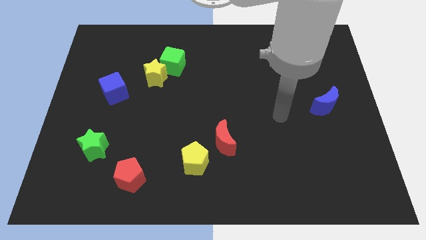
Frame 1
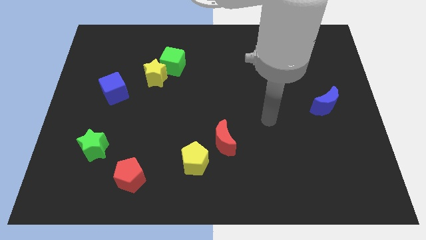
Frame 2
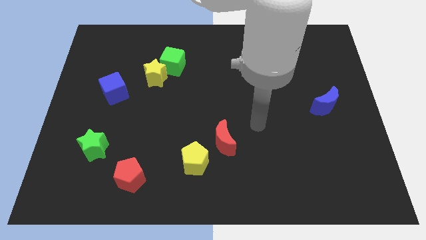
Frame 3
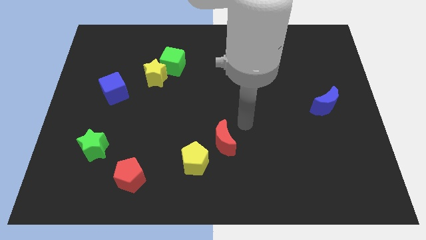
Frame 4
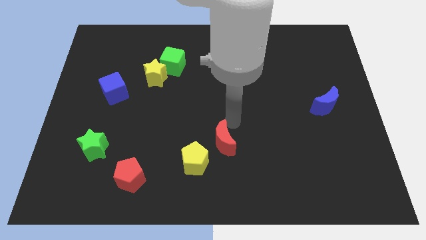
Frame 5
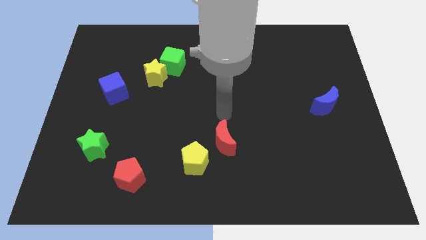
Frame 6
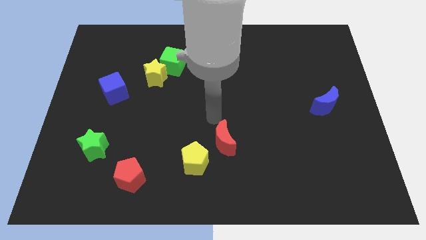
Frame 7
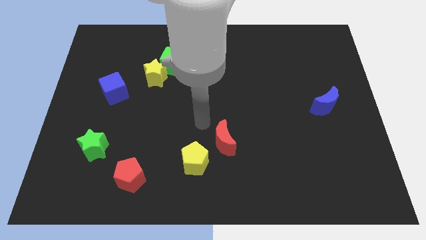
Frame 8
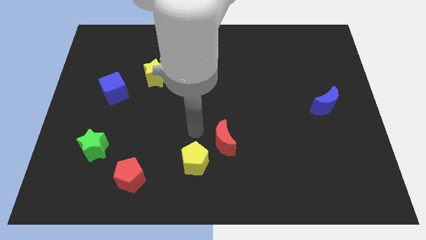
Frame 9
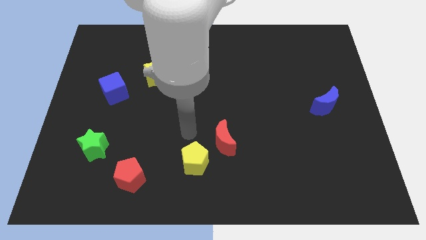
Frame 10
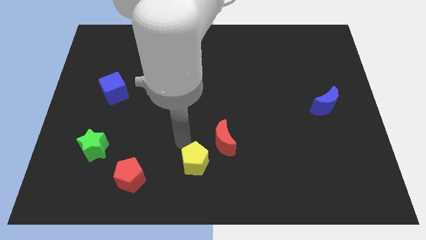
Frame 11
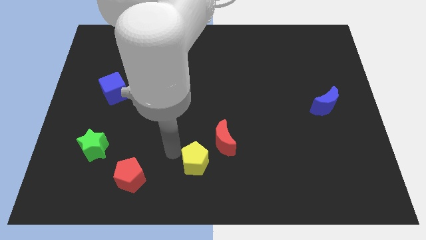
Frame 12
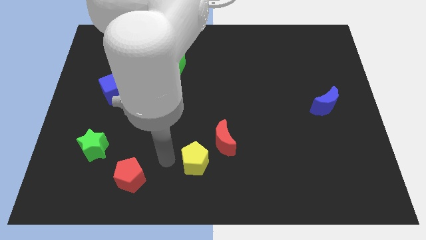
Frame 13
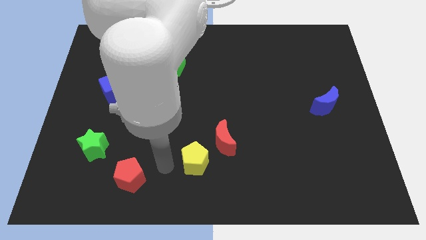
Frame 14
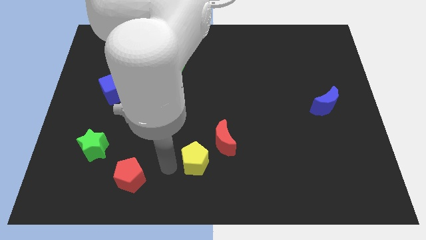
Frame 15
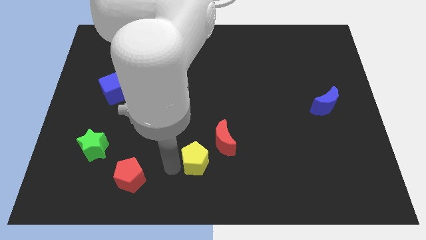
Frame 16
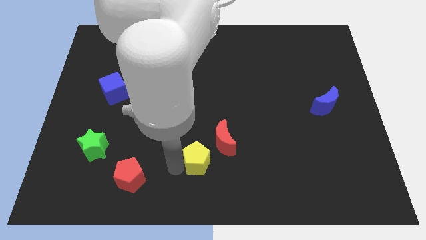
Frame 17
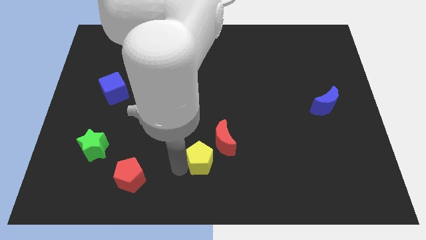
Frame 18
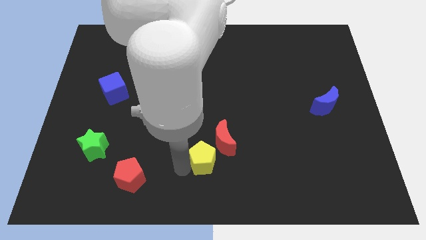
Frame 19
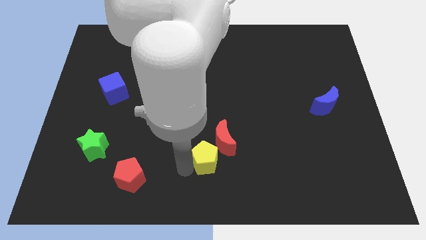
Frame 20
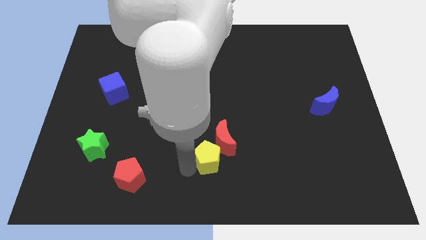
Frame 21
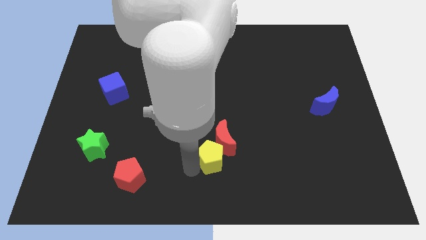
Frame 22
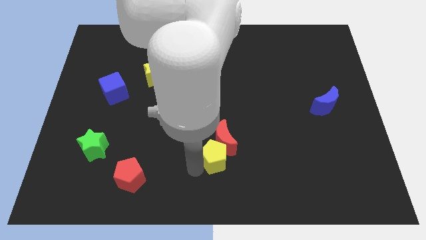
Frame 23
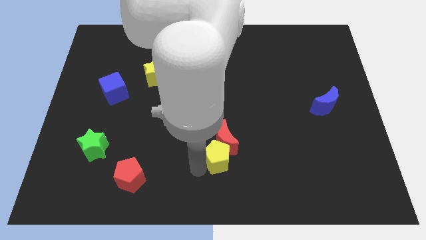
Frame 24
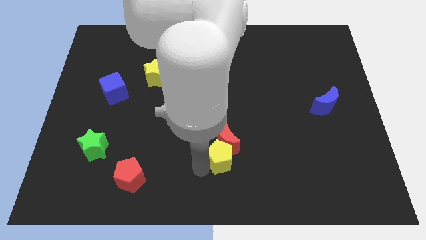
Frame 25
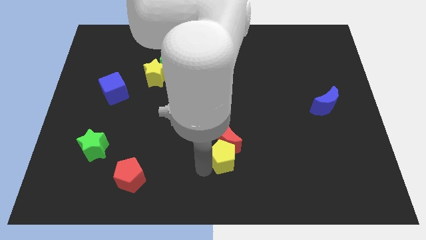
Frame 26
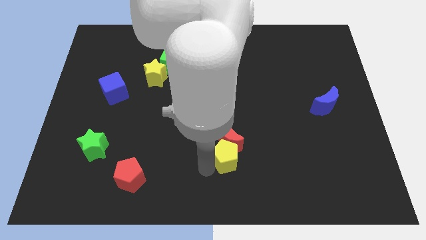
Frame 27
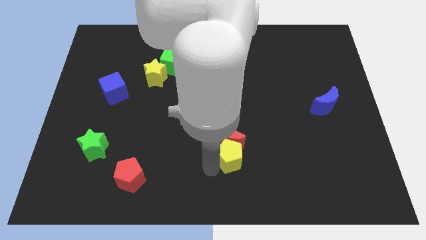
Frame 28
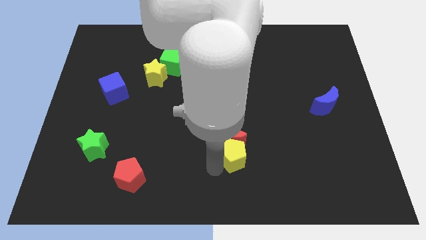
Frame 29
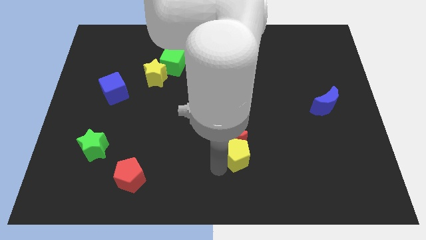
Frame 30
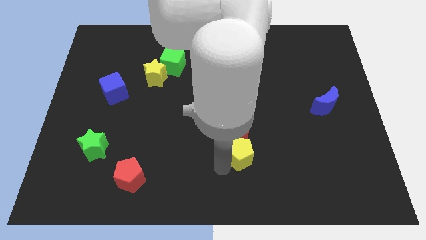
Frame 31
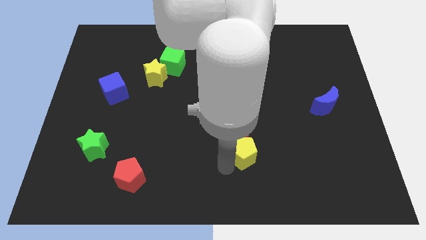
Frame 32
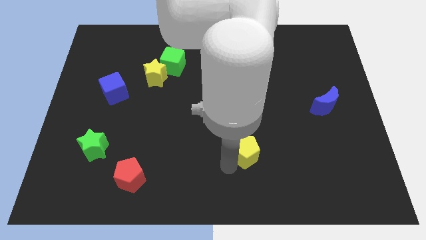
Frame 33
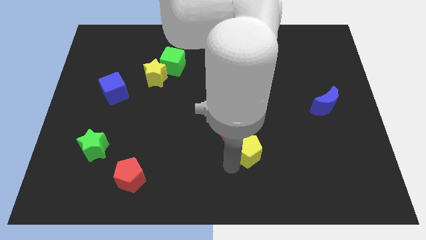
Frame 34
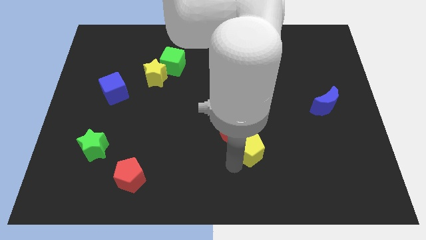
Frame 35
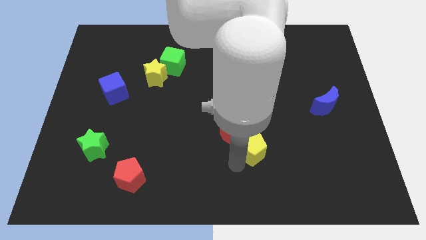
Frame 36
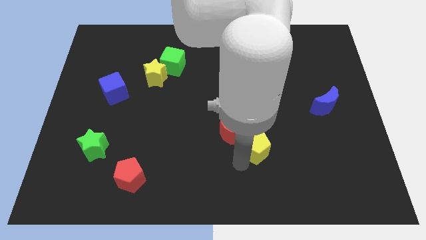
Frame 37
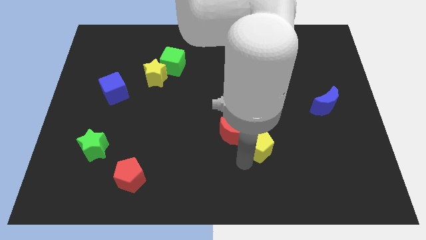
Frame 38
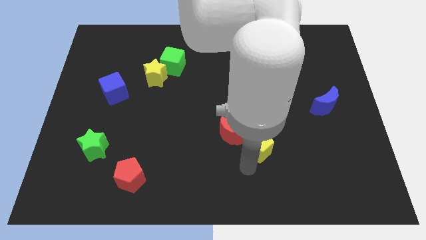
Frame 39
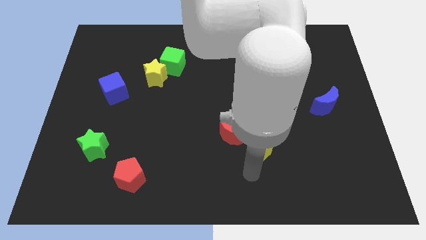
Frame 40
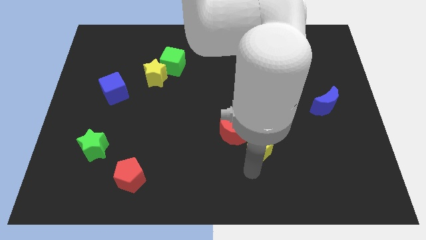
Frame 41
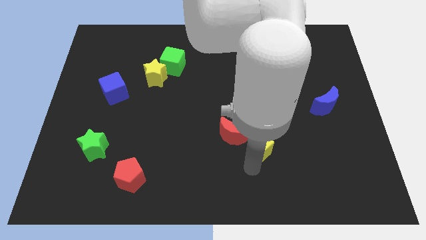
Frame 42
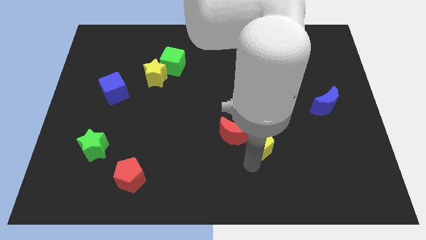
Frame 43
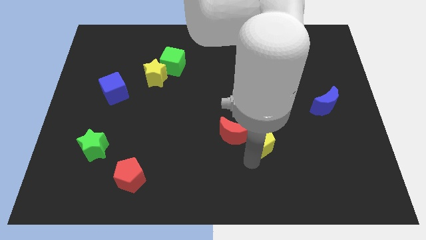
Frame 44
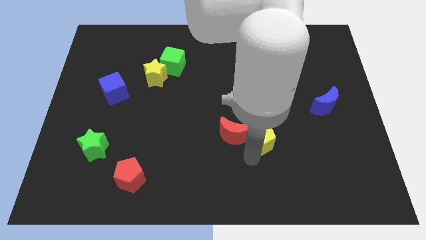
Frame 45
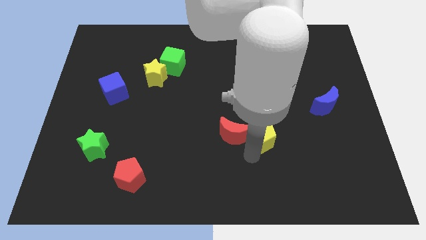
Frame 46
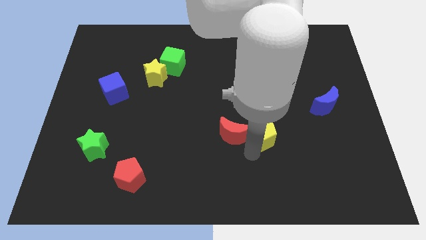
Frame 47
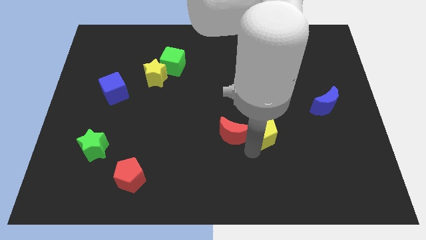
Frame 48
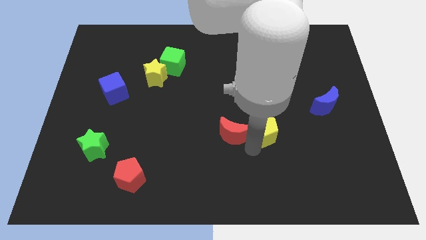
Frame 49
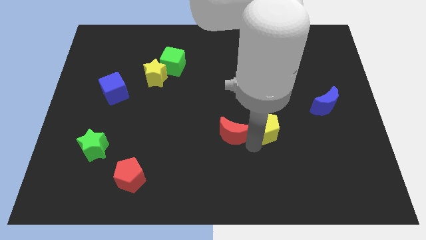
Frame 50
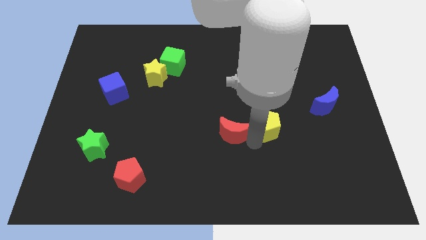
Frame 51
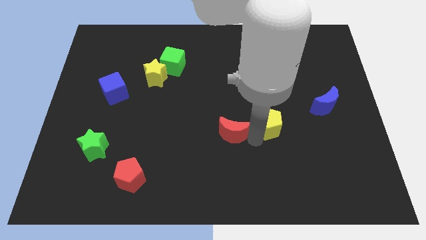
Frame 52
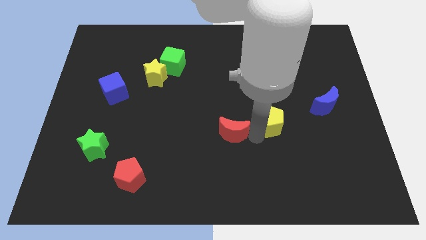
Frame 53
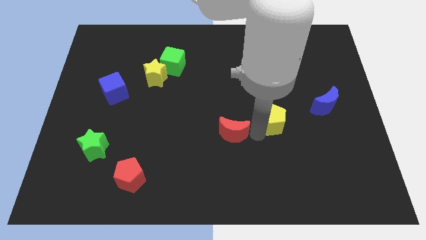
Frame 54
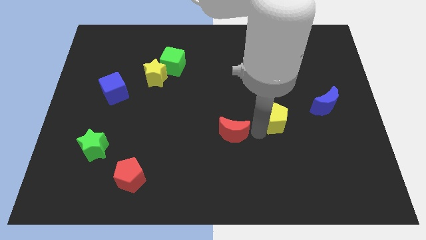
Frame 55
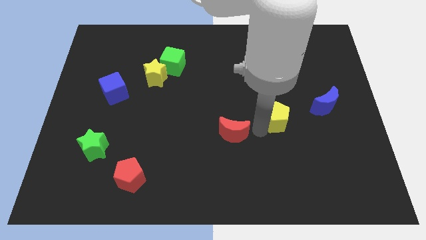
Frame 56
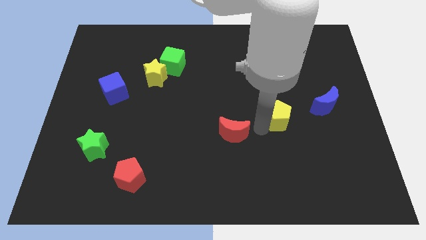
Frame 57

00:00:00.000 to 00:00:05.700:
move the yellow pentagon up and then to the right

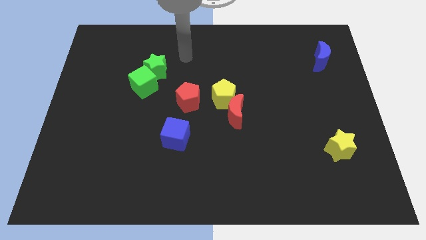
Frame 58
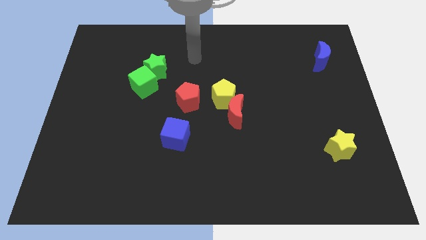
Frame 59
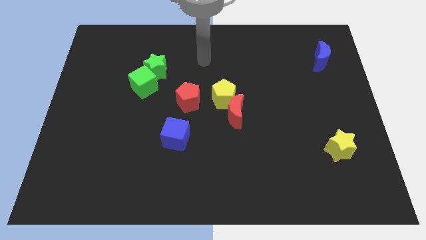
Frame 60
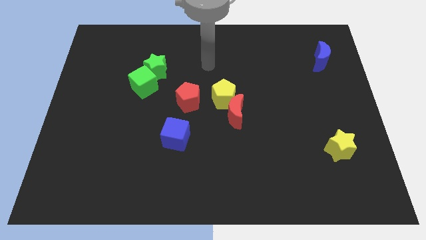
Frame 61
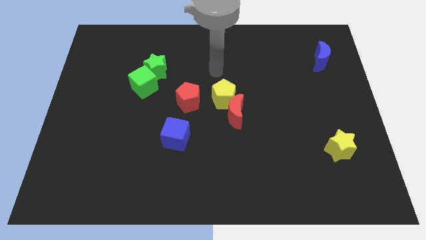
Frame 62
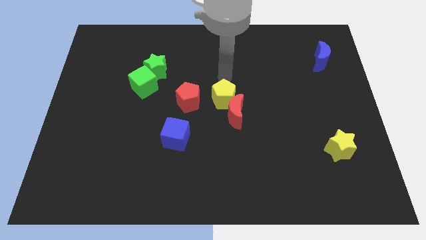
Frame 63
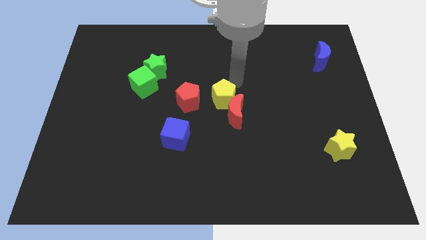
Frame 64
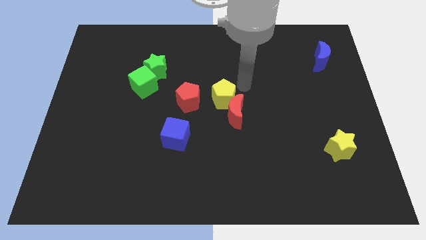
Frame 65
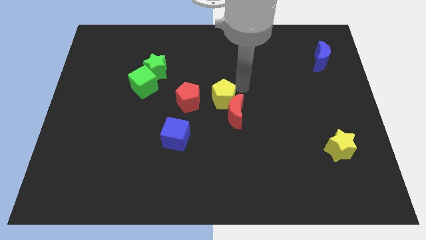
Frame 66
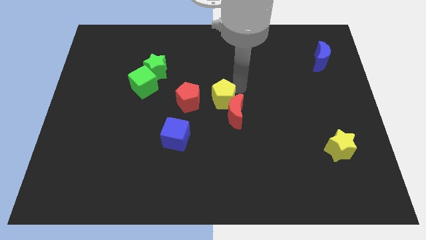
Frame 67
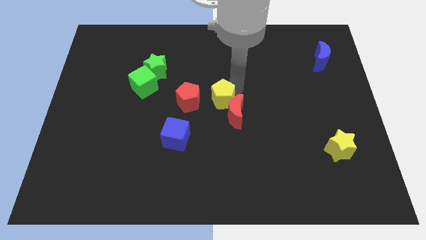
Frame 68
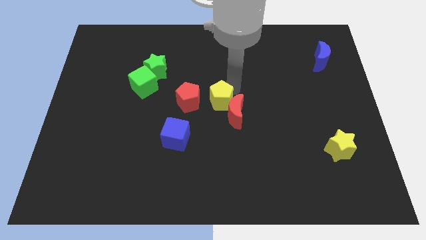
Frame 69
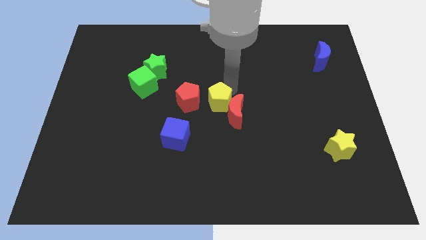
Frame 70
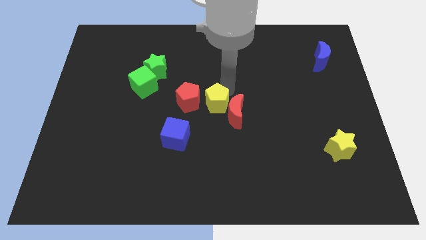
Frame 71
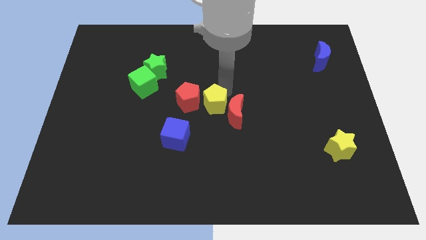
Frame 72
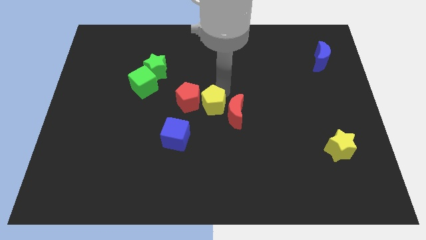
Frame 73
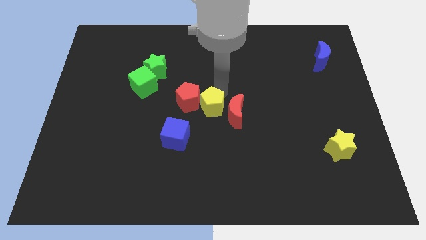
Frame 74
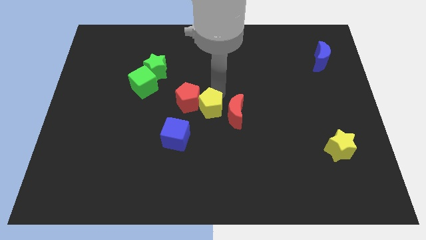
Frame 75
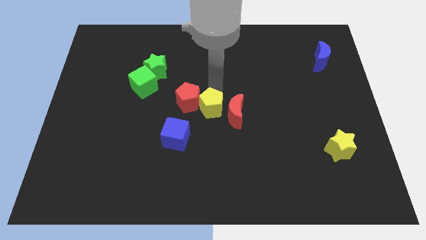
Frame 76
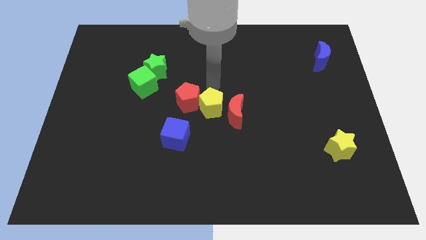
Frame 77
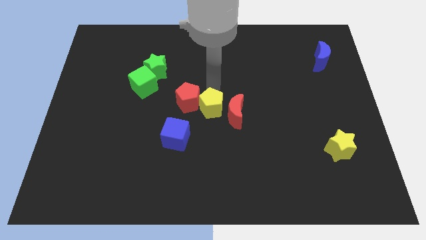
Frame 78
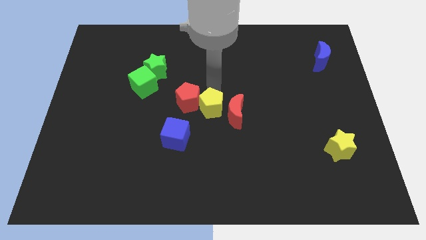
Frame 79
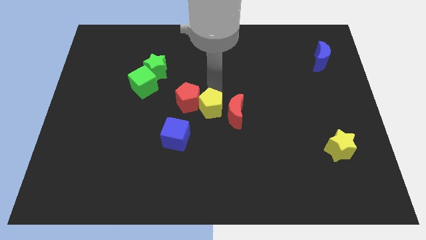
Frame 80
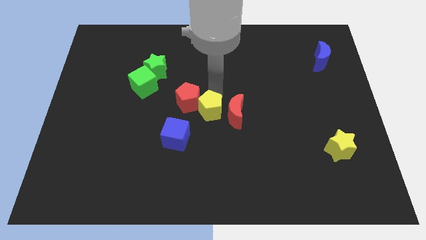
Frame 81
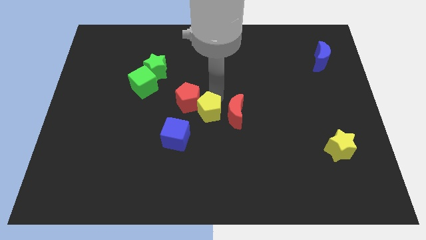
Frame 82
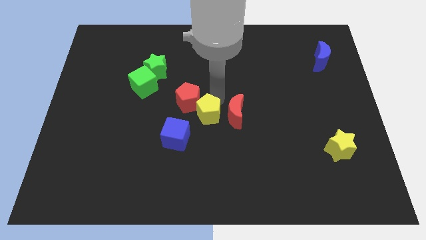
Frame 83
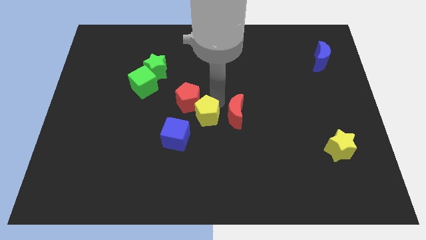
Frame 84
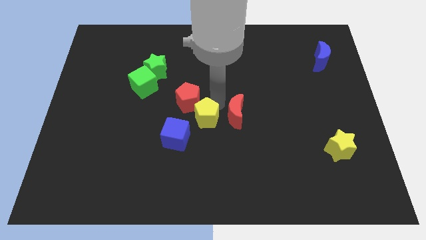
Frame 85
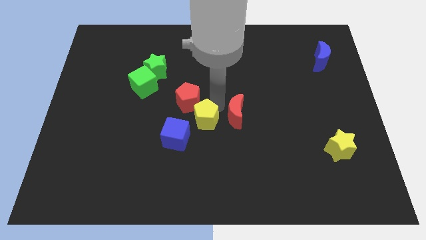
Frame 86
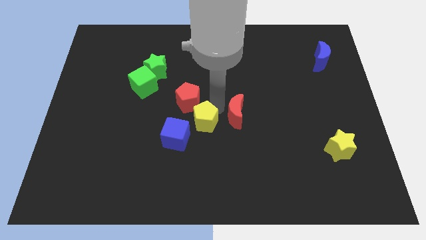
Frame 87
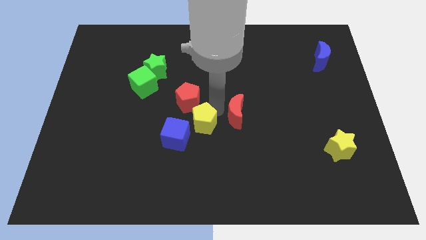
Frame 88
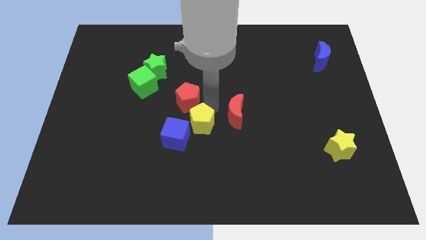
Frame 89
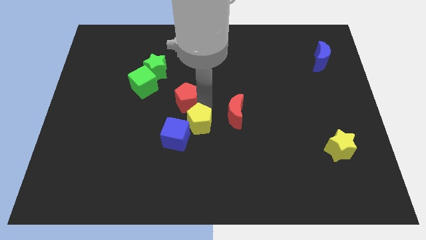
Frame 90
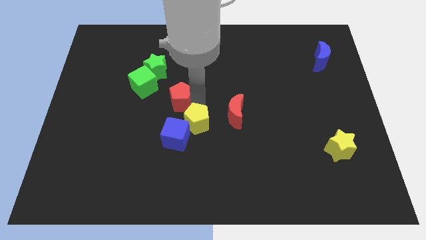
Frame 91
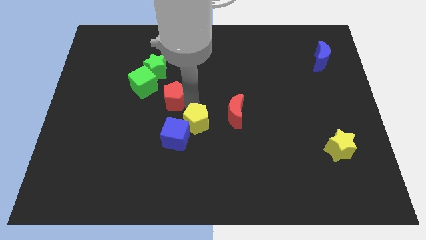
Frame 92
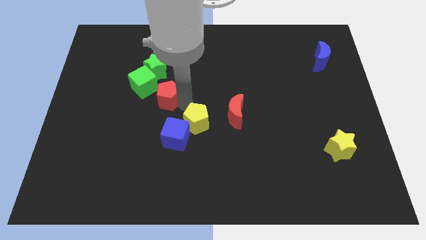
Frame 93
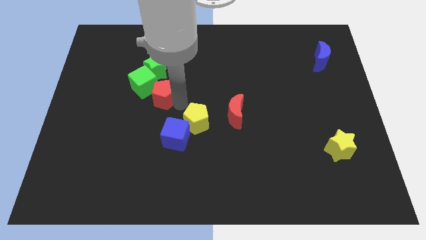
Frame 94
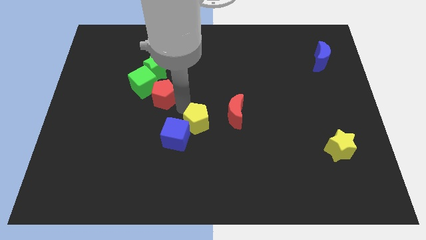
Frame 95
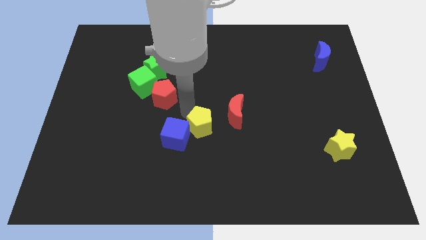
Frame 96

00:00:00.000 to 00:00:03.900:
push the yellow pentagon a little down
